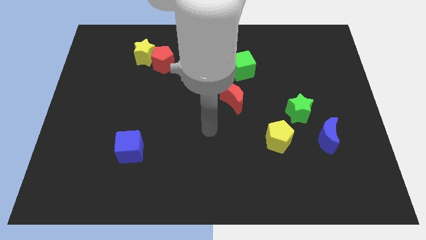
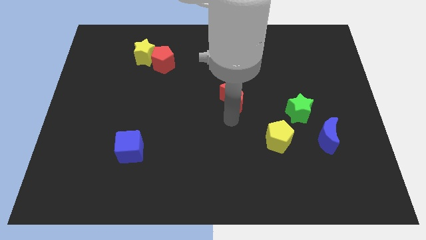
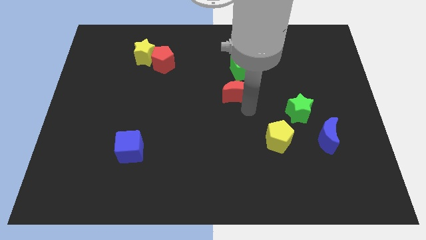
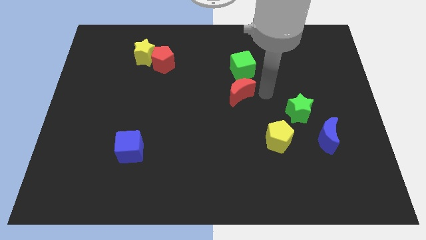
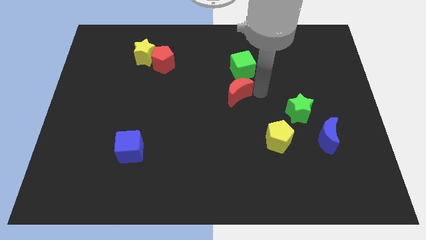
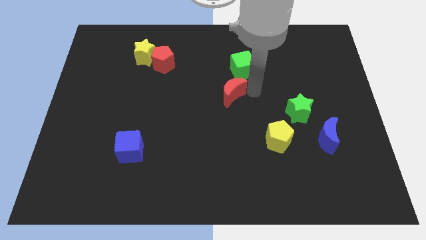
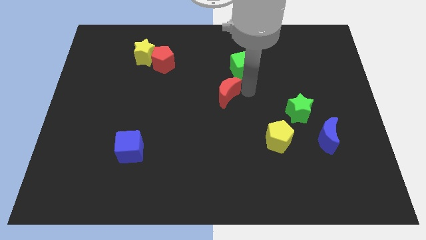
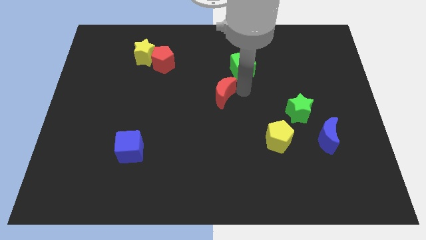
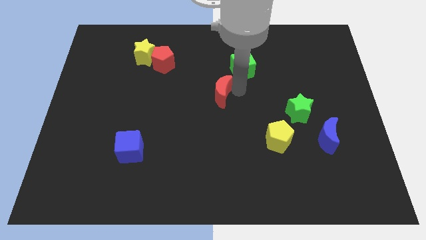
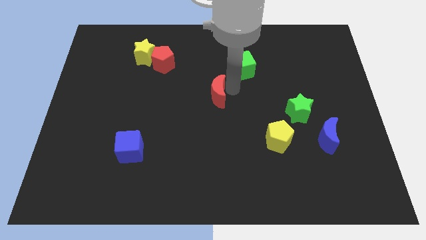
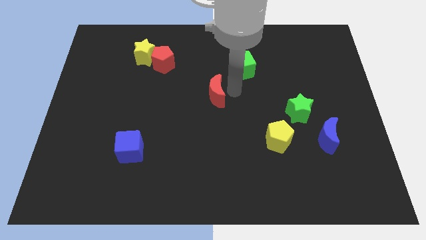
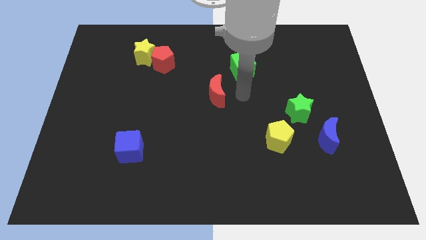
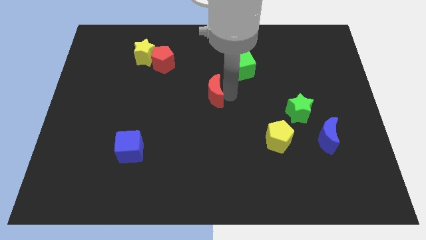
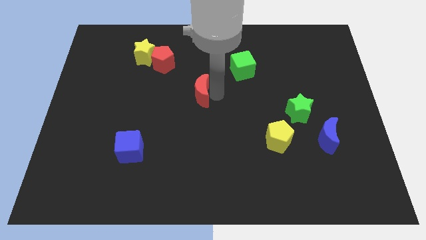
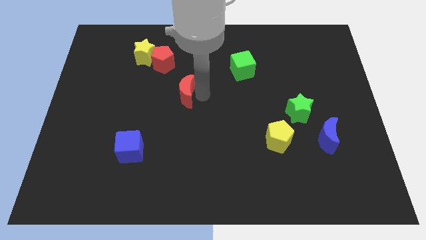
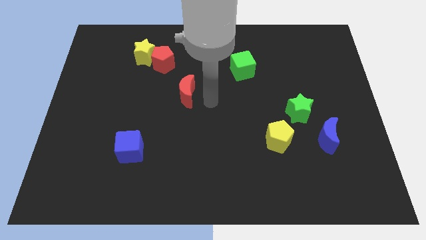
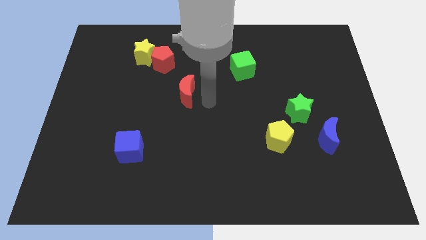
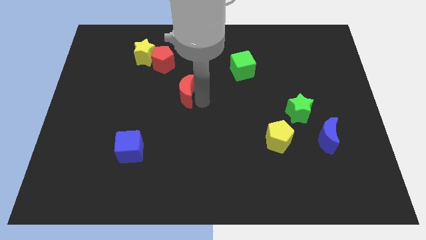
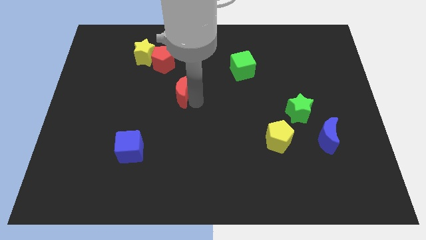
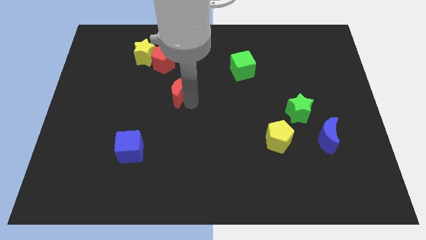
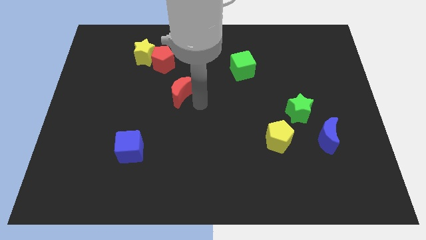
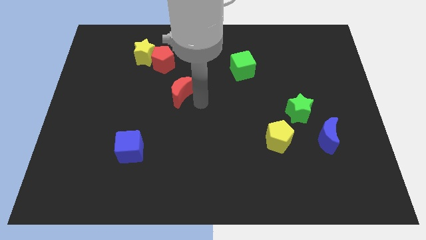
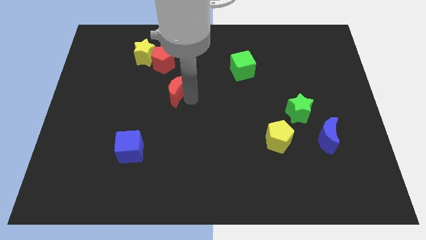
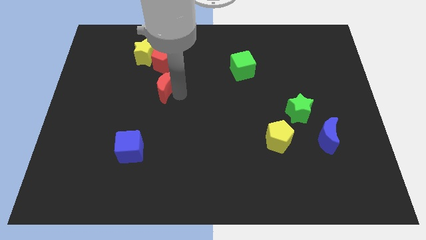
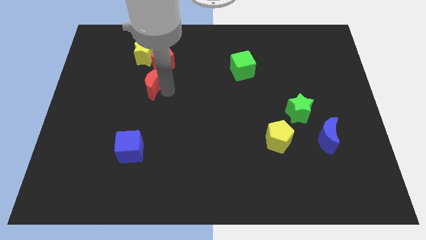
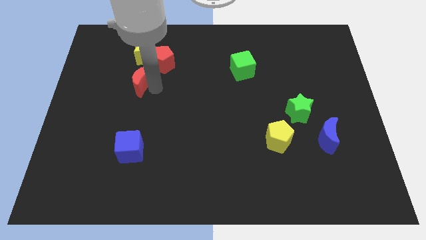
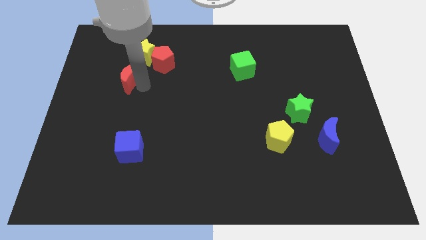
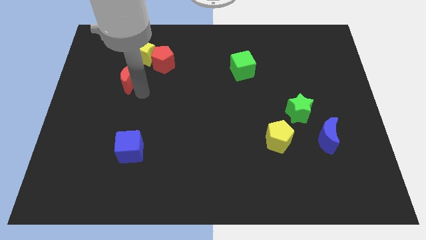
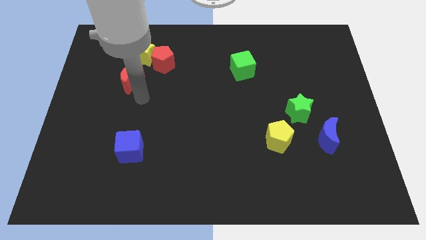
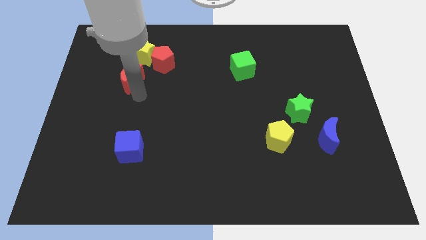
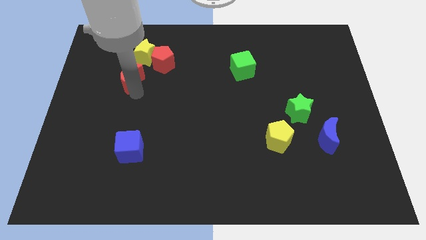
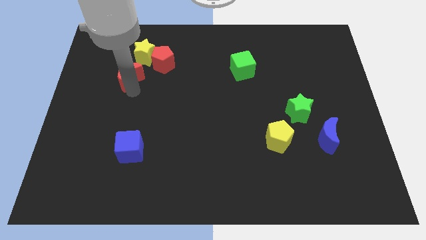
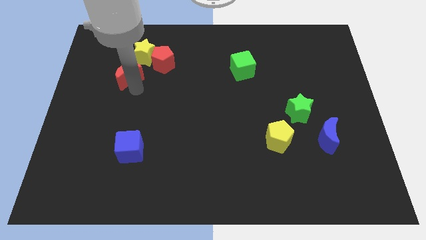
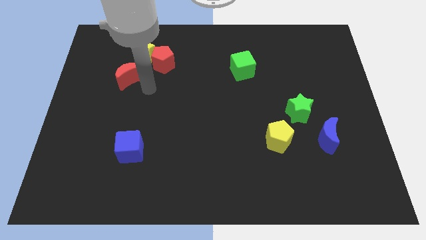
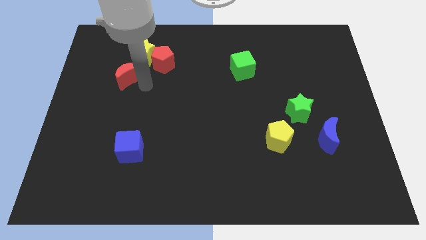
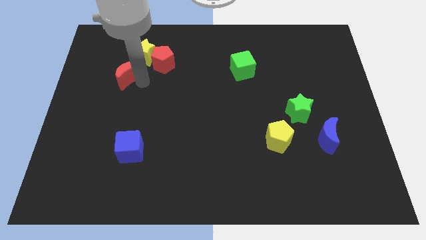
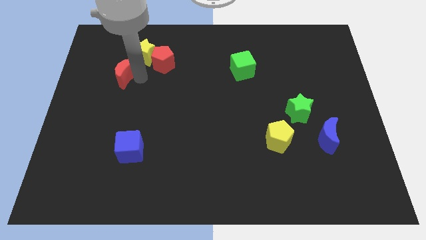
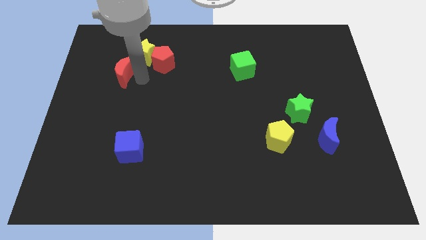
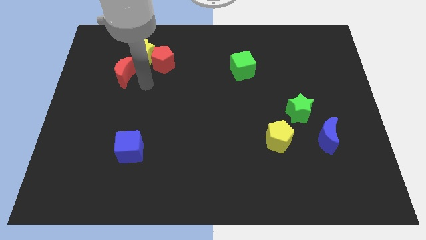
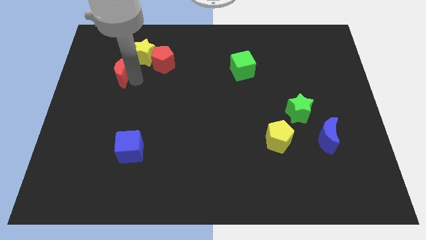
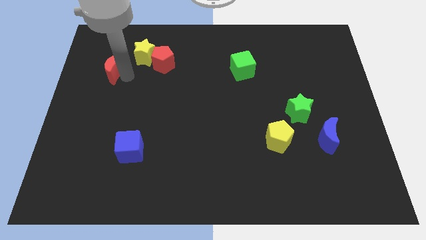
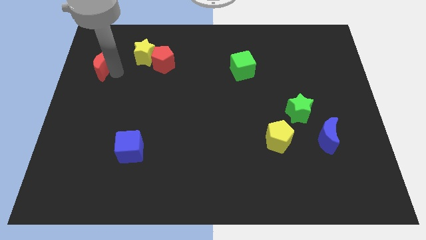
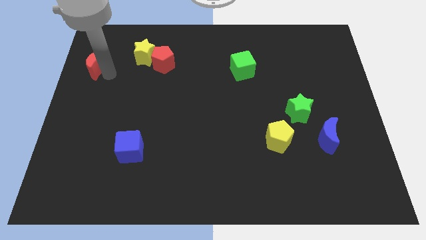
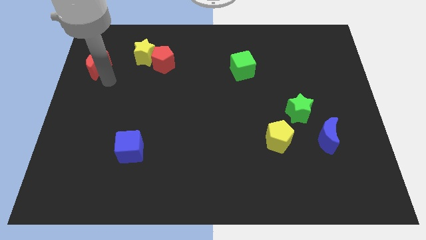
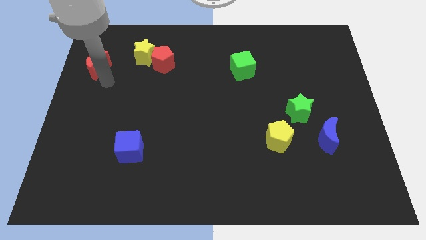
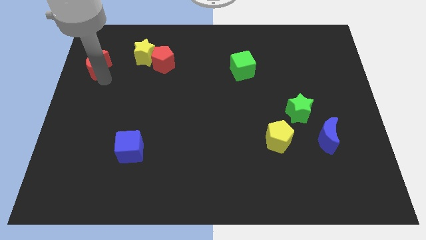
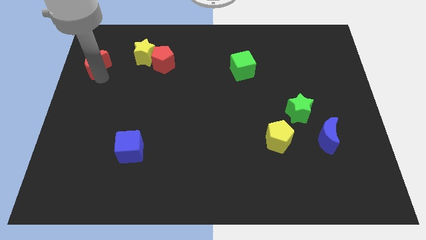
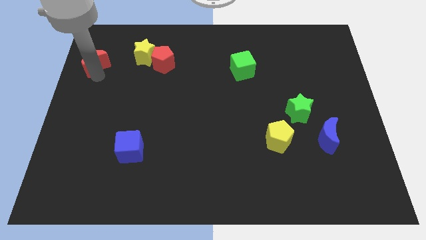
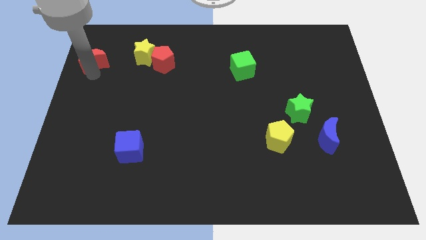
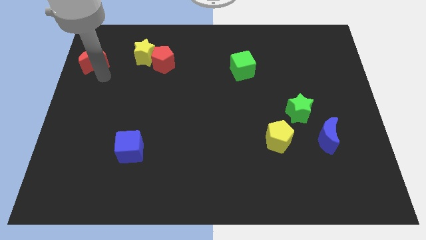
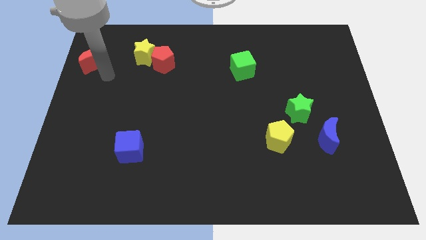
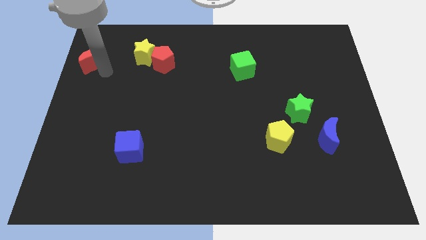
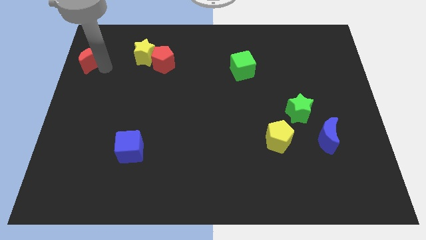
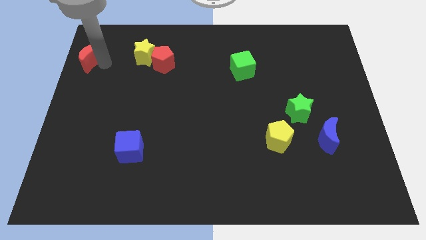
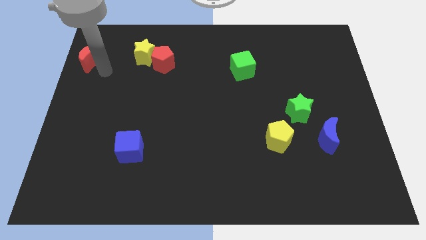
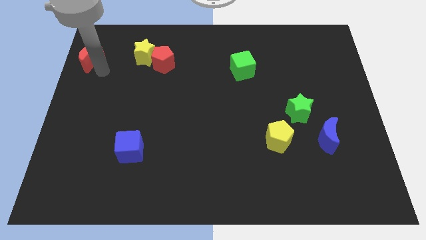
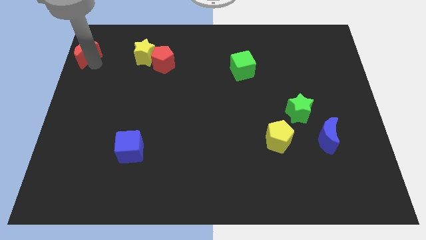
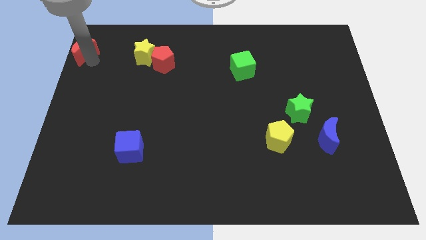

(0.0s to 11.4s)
push the red moon to the top left corner

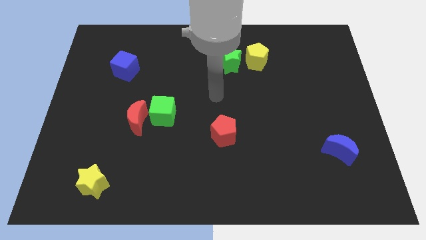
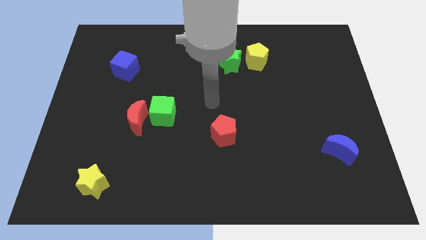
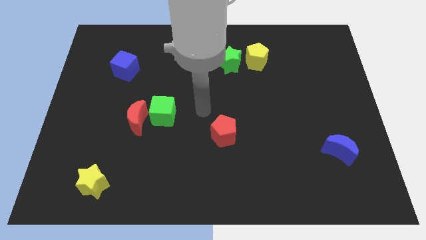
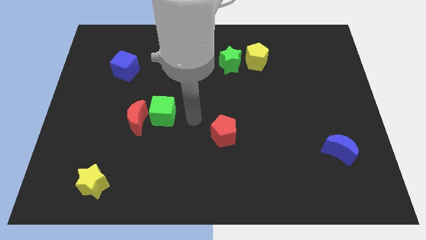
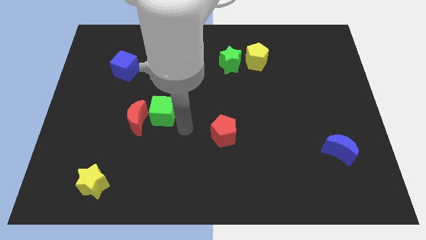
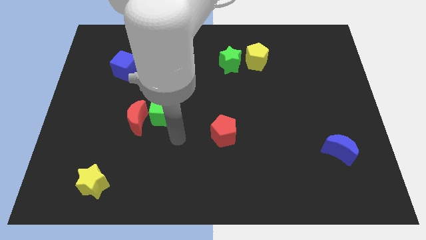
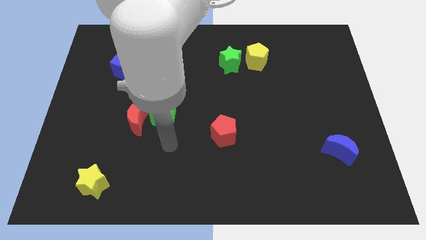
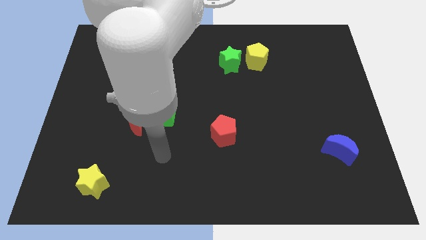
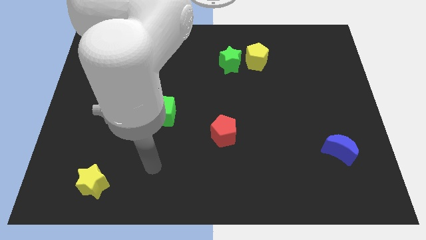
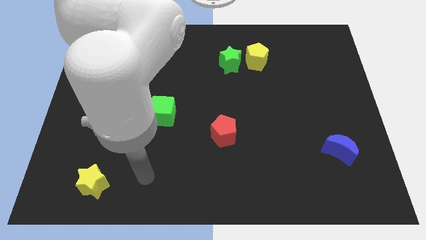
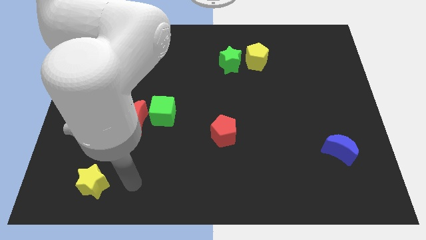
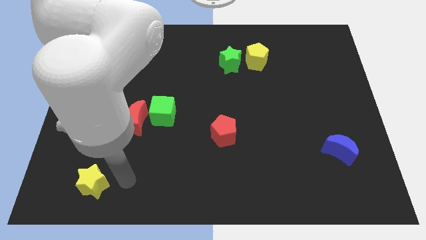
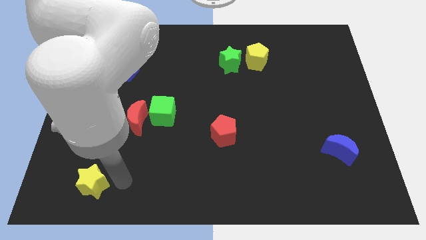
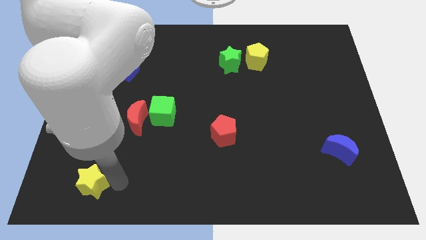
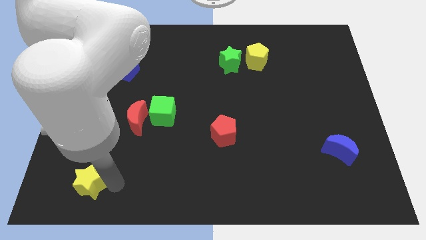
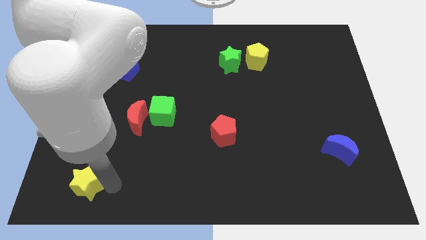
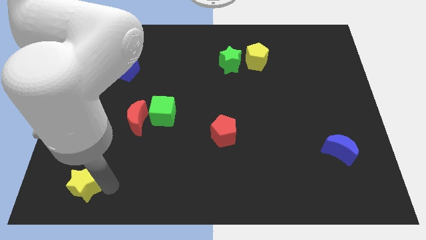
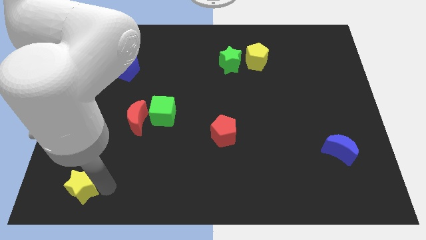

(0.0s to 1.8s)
slide the yellow star to the bottom left corner
